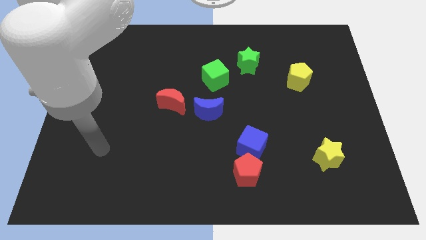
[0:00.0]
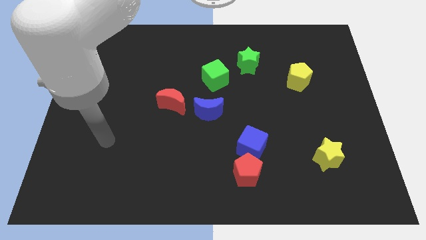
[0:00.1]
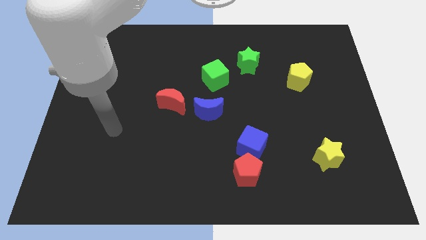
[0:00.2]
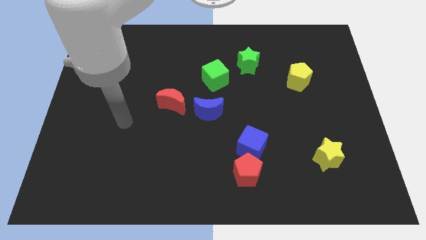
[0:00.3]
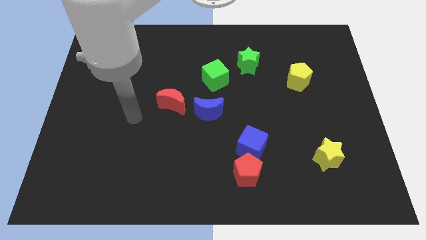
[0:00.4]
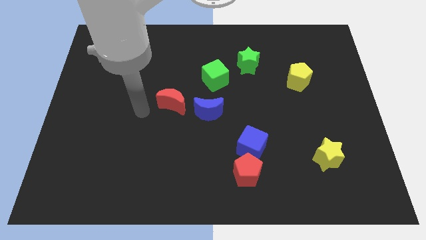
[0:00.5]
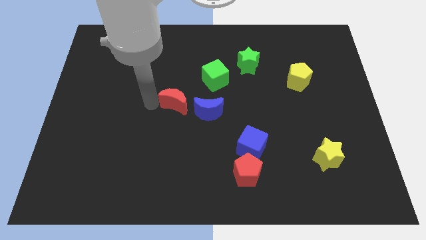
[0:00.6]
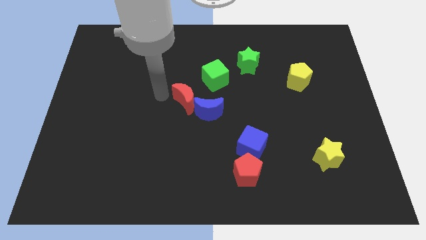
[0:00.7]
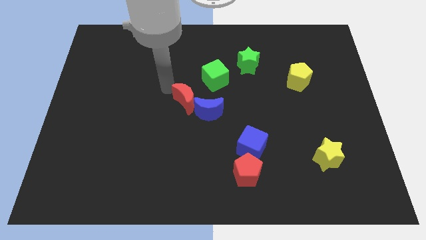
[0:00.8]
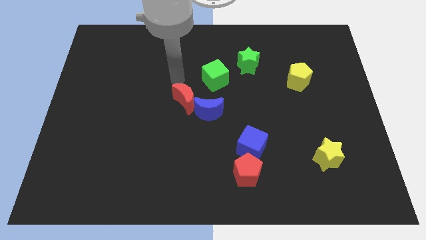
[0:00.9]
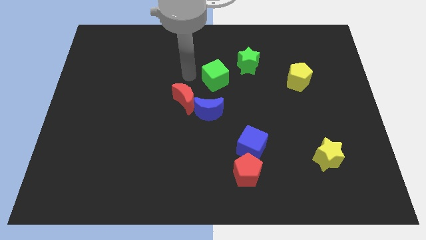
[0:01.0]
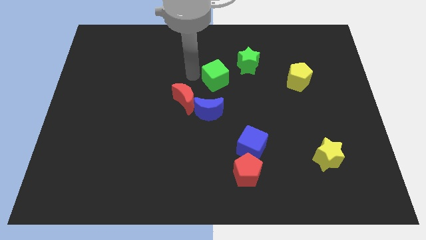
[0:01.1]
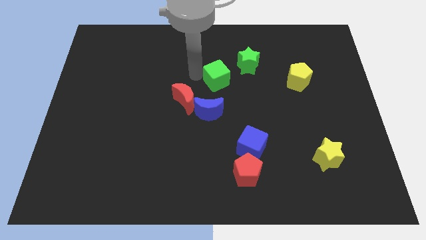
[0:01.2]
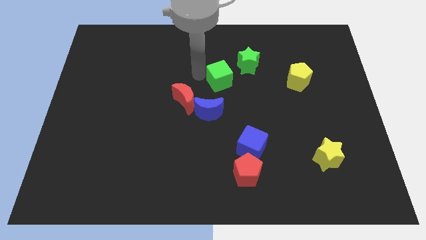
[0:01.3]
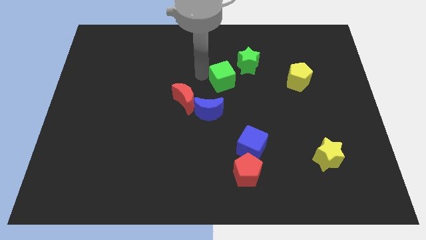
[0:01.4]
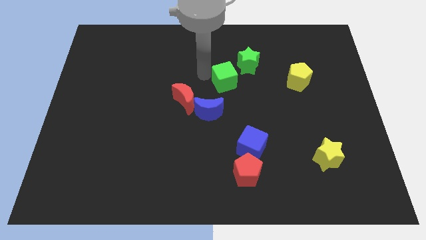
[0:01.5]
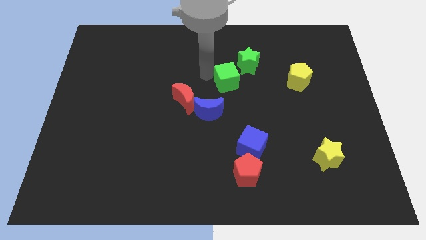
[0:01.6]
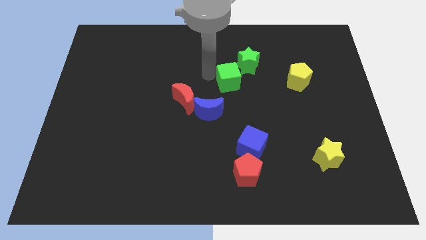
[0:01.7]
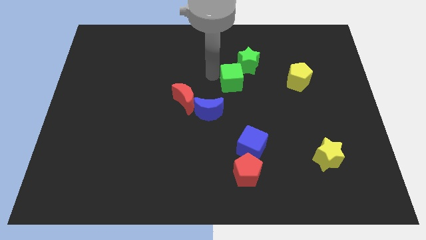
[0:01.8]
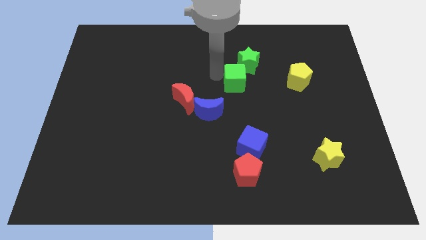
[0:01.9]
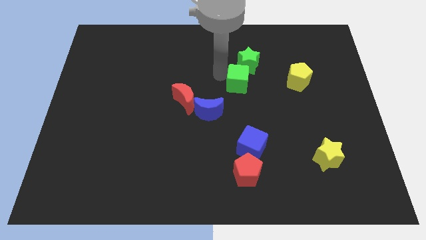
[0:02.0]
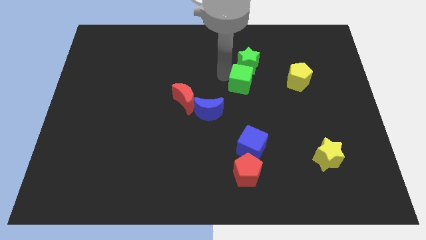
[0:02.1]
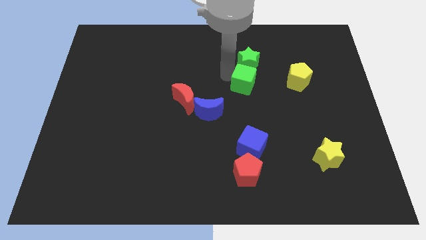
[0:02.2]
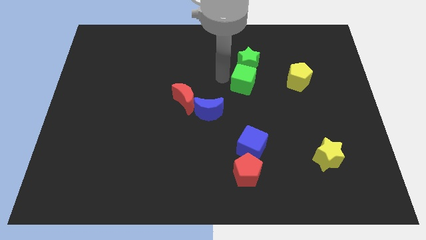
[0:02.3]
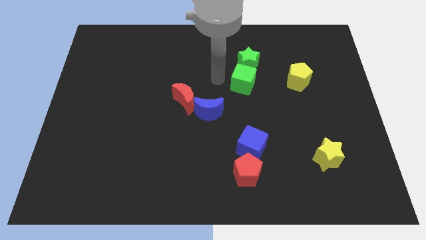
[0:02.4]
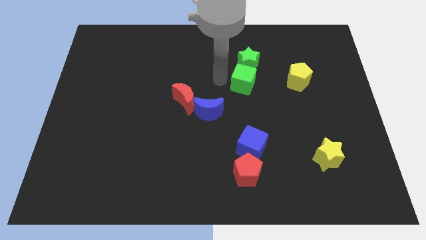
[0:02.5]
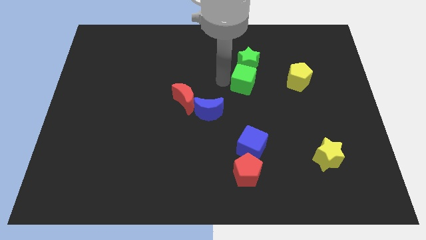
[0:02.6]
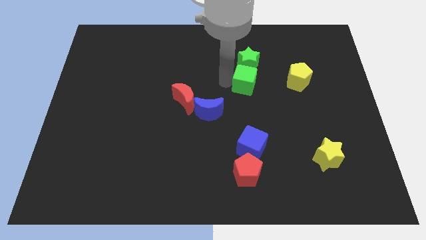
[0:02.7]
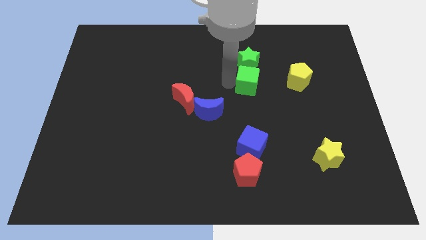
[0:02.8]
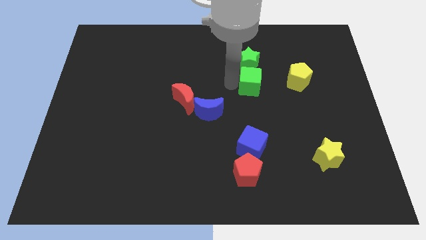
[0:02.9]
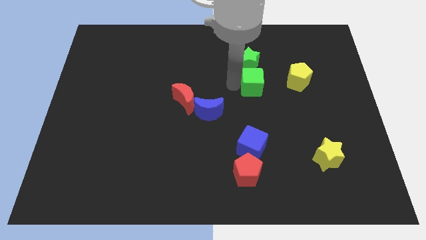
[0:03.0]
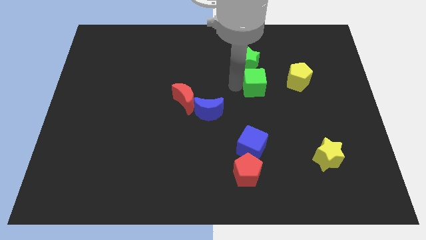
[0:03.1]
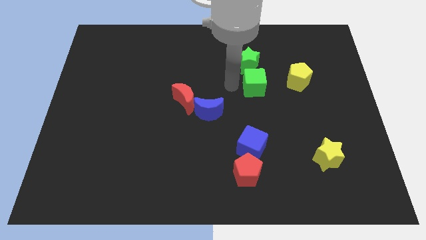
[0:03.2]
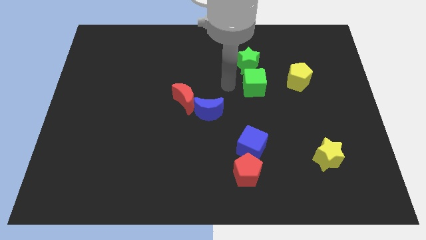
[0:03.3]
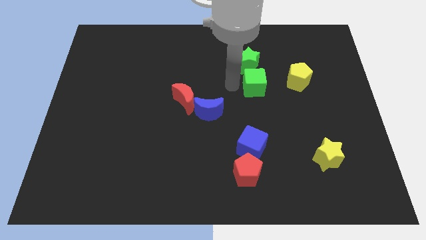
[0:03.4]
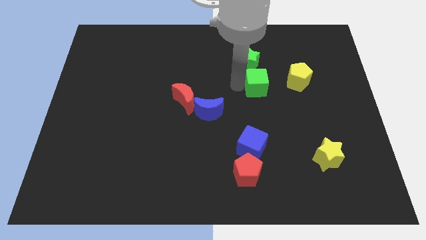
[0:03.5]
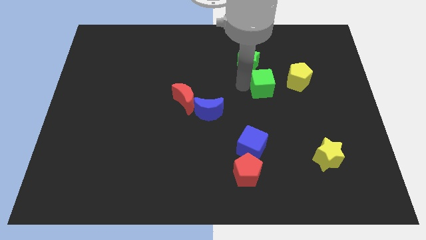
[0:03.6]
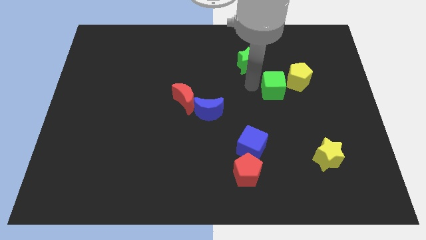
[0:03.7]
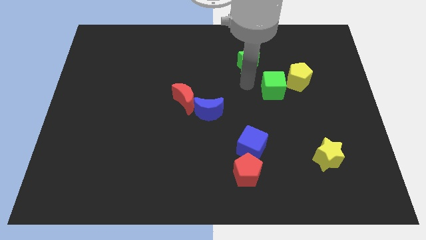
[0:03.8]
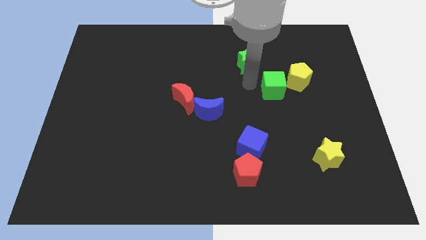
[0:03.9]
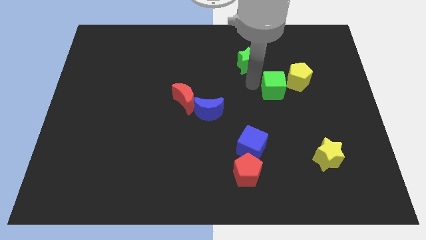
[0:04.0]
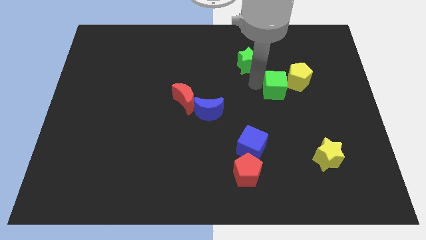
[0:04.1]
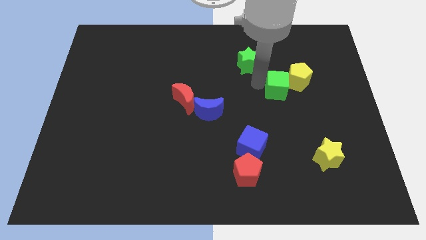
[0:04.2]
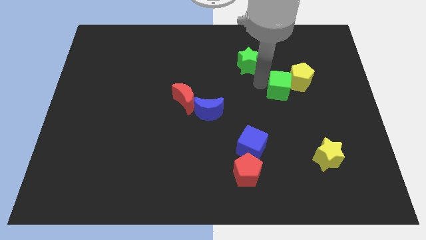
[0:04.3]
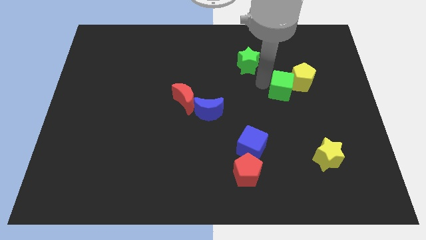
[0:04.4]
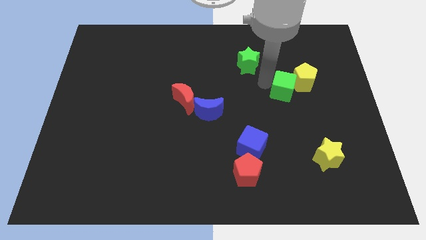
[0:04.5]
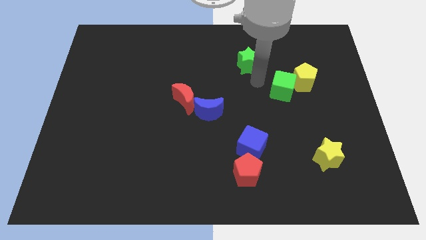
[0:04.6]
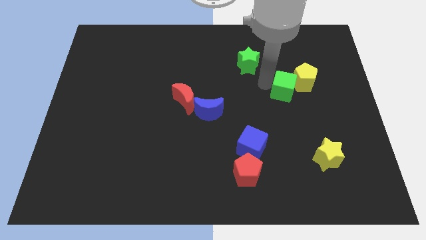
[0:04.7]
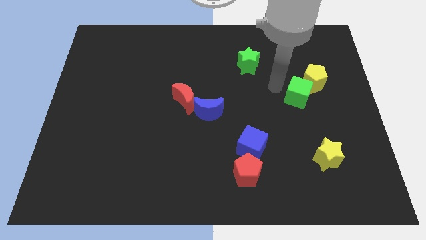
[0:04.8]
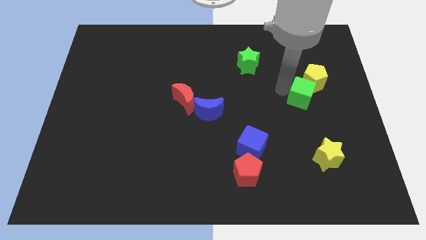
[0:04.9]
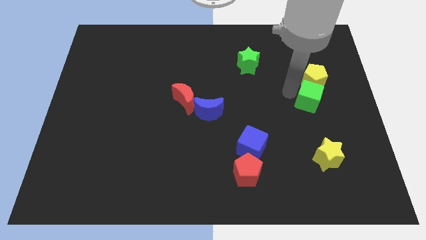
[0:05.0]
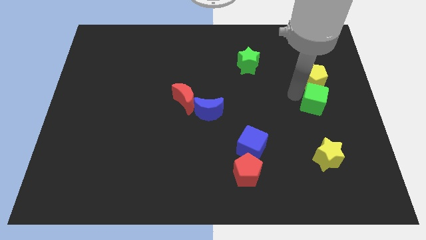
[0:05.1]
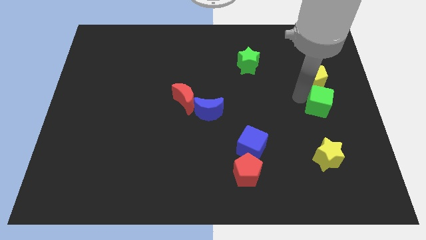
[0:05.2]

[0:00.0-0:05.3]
put the green cube to the right side of the board

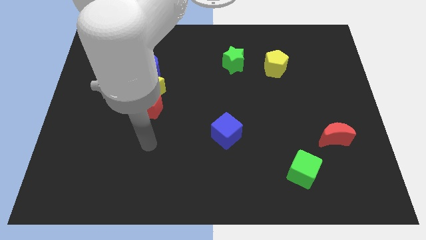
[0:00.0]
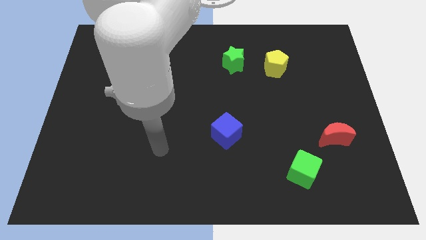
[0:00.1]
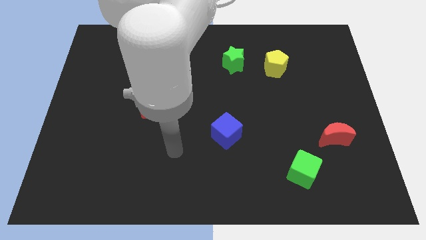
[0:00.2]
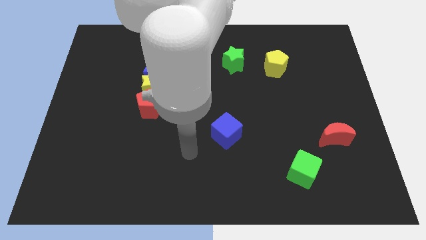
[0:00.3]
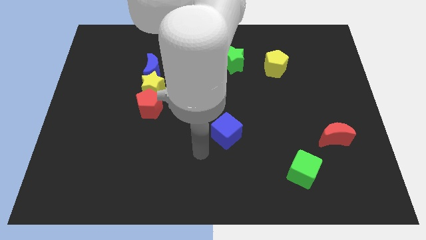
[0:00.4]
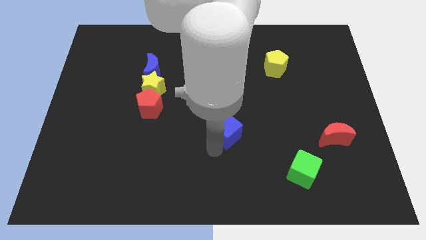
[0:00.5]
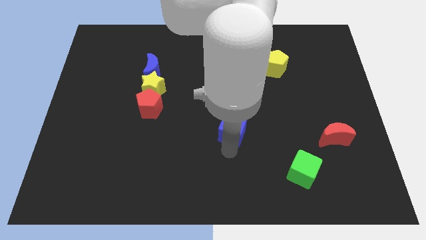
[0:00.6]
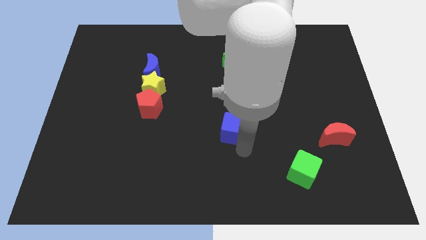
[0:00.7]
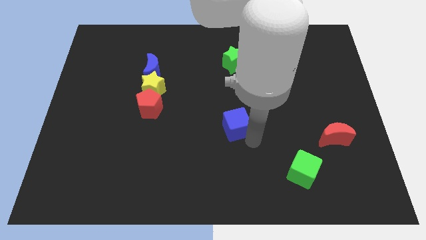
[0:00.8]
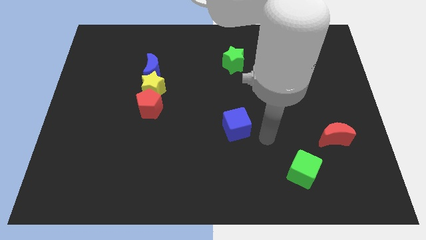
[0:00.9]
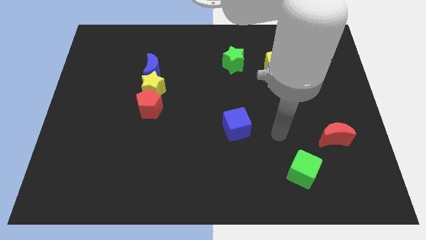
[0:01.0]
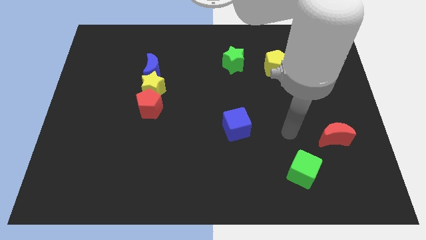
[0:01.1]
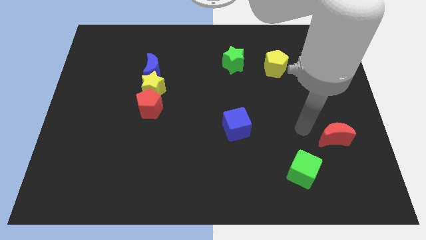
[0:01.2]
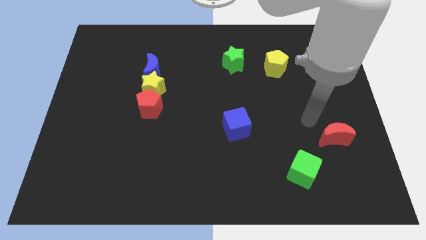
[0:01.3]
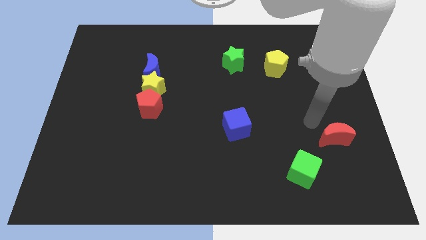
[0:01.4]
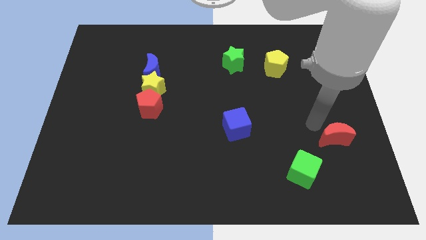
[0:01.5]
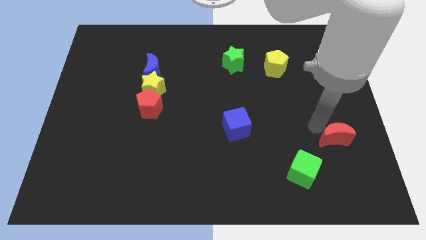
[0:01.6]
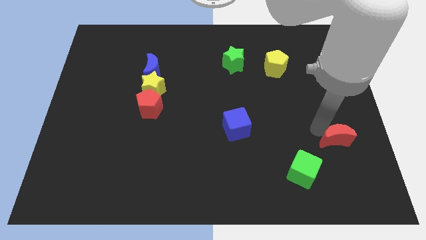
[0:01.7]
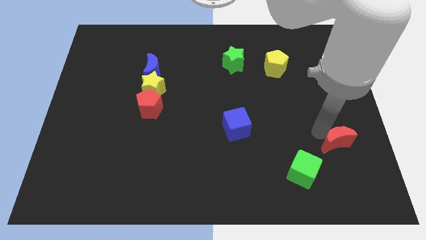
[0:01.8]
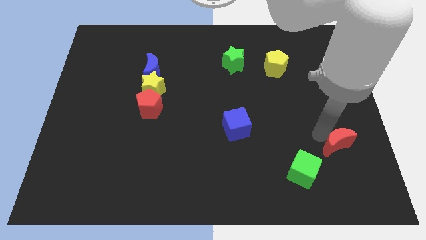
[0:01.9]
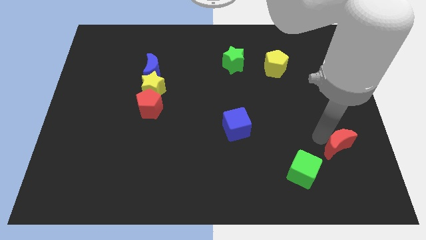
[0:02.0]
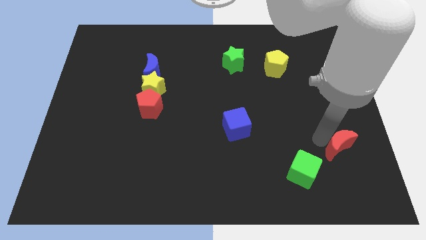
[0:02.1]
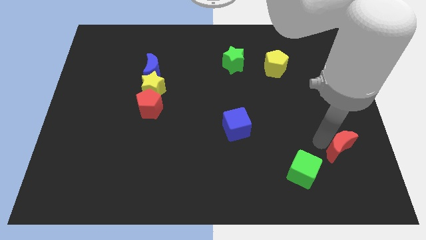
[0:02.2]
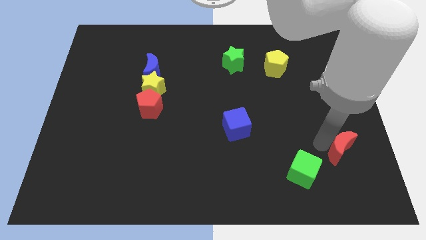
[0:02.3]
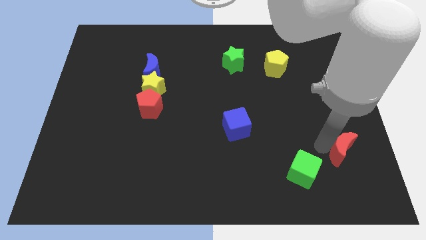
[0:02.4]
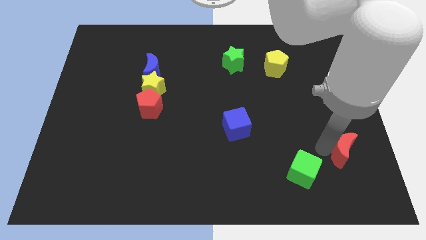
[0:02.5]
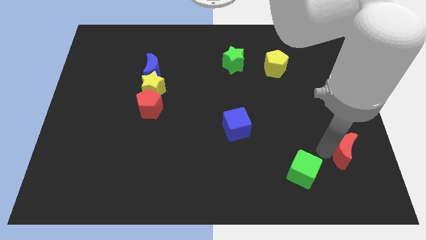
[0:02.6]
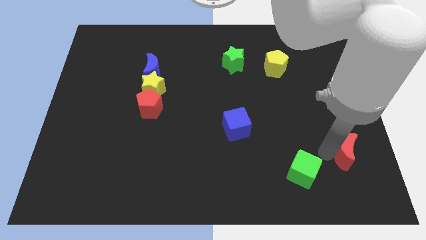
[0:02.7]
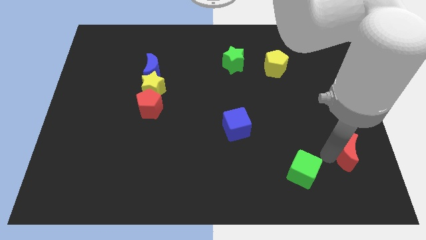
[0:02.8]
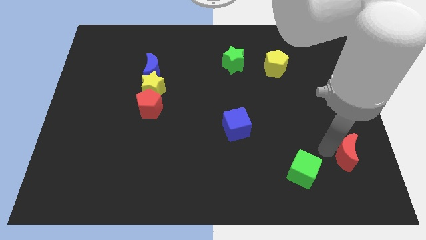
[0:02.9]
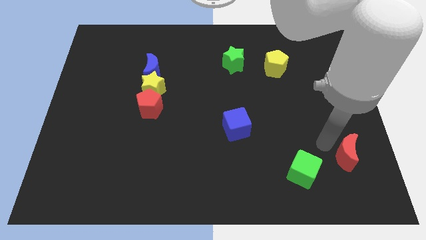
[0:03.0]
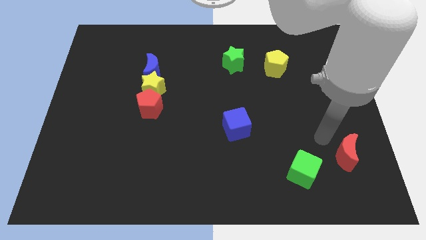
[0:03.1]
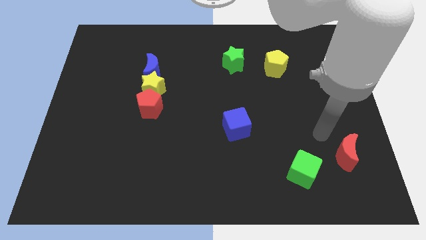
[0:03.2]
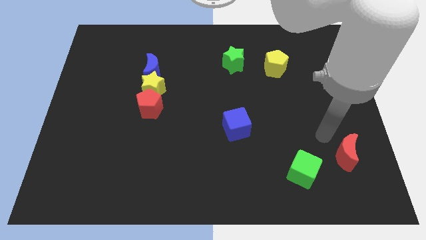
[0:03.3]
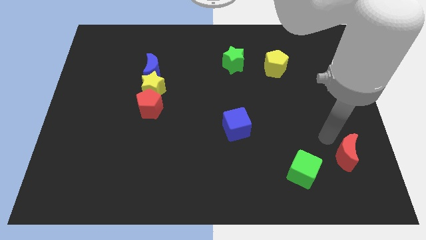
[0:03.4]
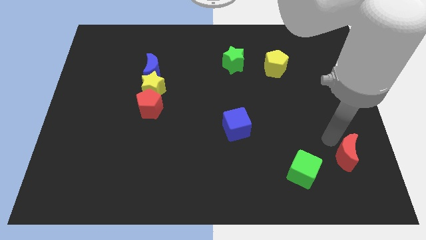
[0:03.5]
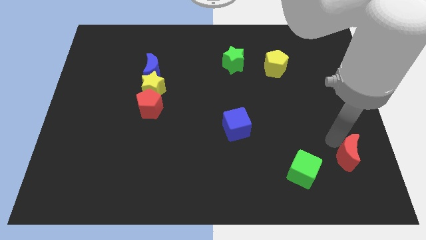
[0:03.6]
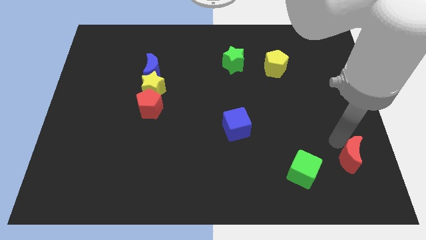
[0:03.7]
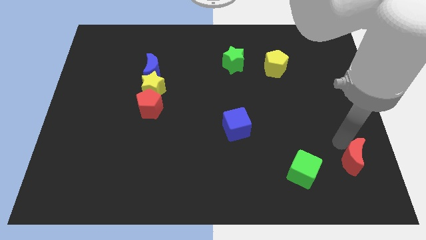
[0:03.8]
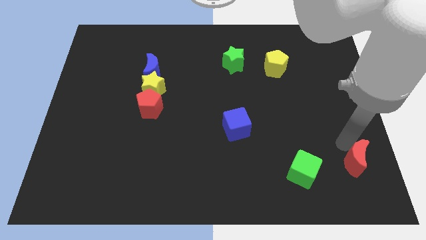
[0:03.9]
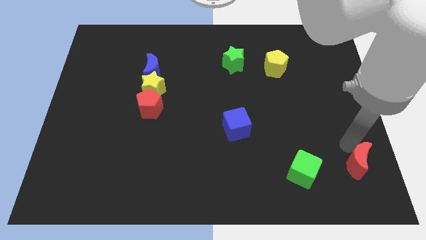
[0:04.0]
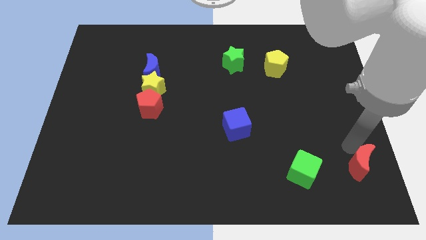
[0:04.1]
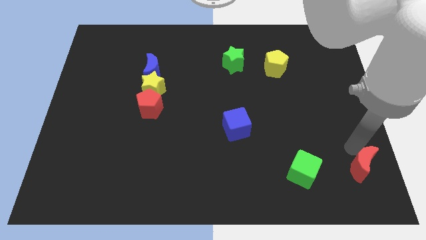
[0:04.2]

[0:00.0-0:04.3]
slide the red moon to the bottom right of the board
